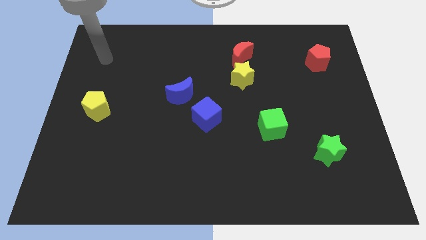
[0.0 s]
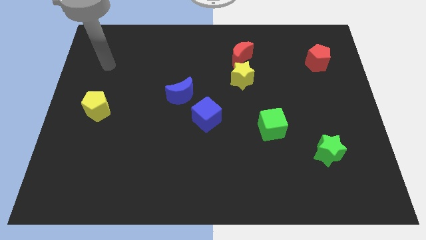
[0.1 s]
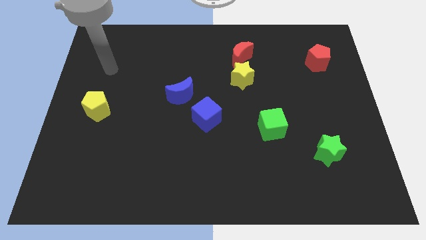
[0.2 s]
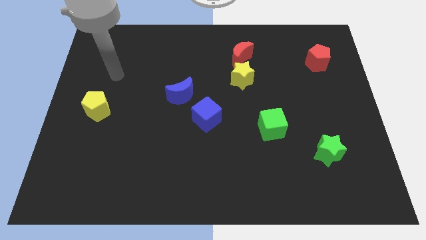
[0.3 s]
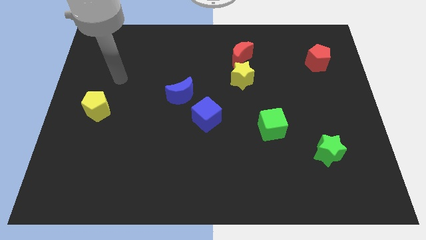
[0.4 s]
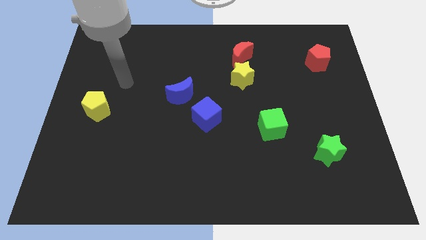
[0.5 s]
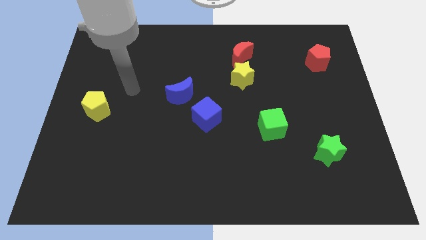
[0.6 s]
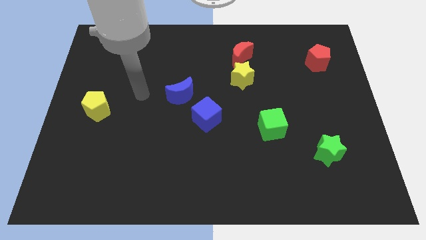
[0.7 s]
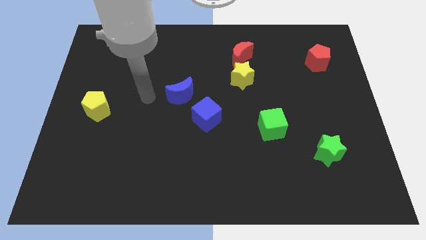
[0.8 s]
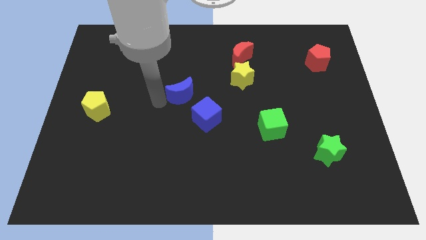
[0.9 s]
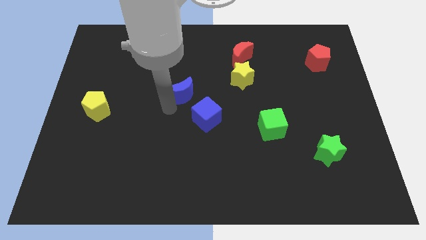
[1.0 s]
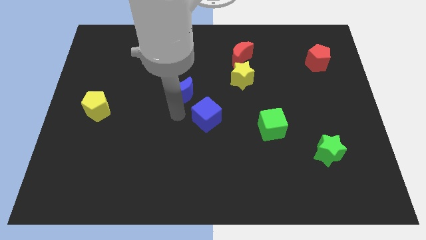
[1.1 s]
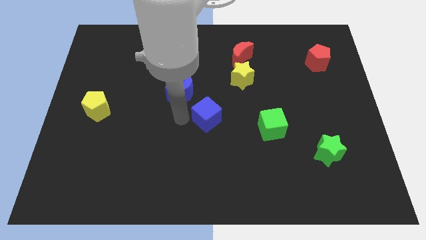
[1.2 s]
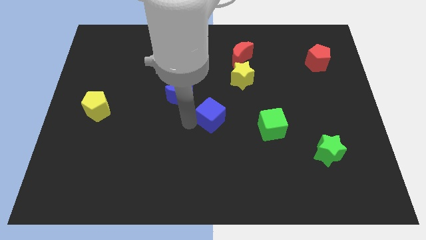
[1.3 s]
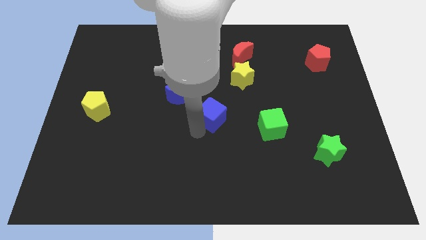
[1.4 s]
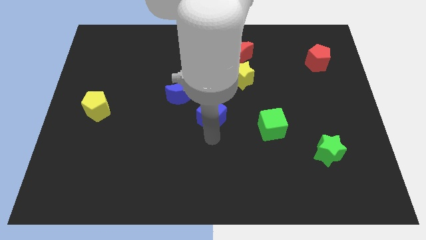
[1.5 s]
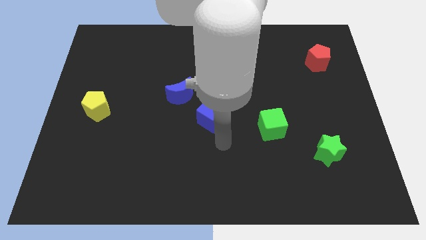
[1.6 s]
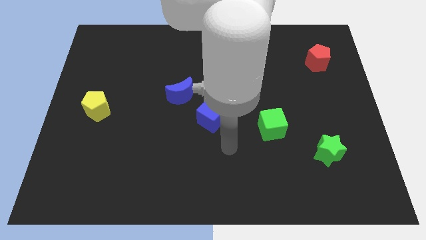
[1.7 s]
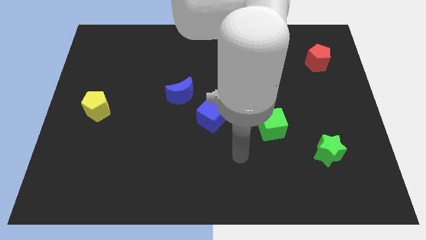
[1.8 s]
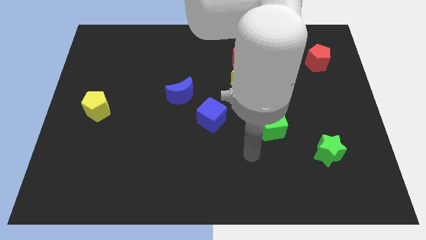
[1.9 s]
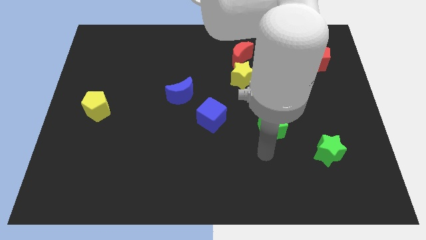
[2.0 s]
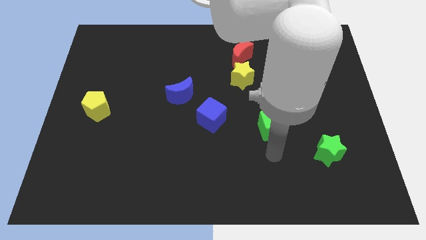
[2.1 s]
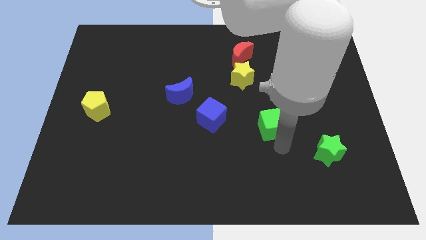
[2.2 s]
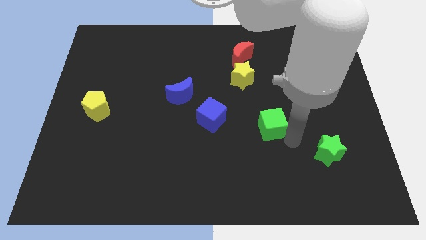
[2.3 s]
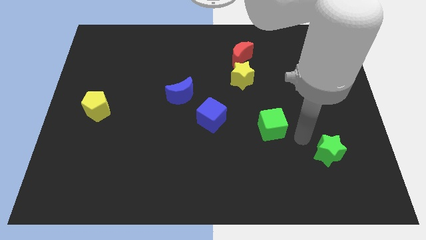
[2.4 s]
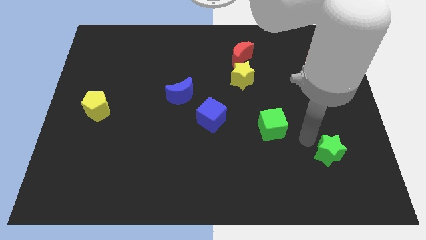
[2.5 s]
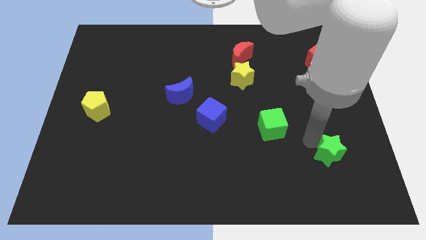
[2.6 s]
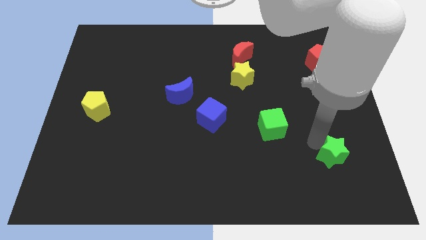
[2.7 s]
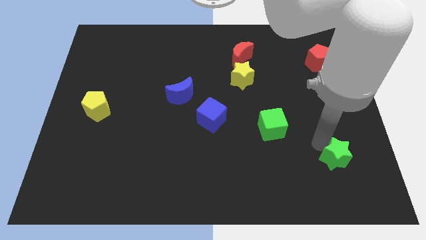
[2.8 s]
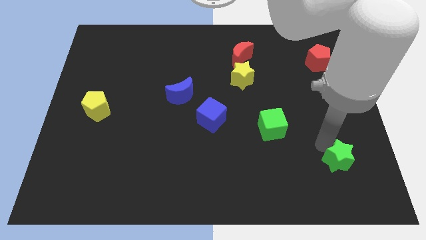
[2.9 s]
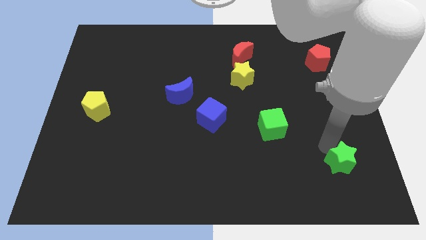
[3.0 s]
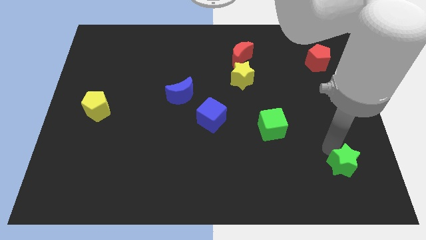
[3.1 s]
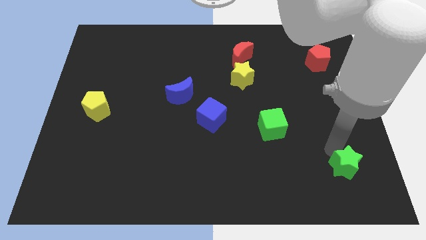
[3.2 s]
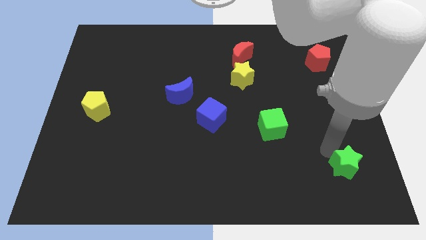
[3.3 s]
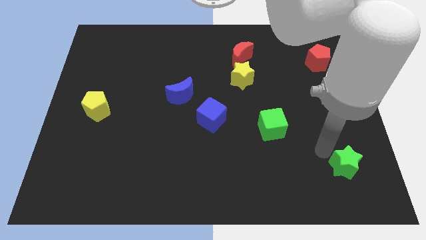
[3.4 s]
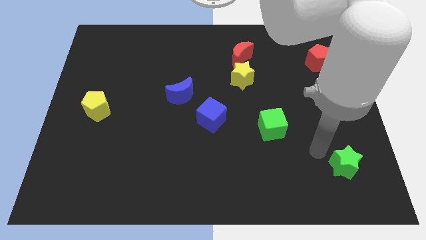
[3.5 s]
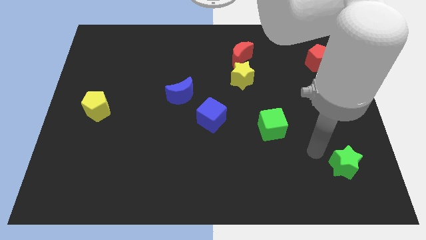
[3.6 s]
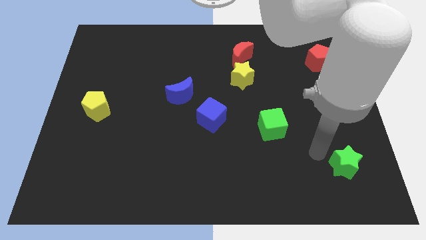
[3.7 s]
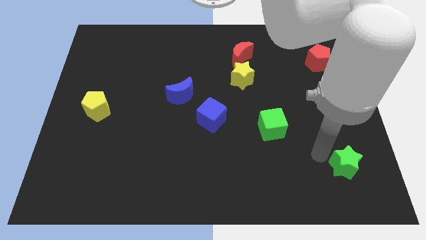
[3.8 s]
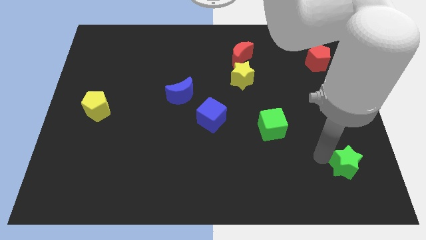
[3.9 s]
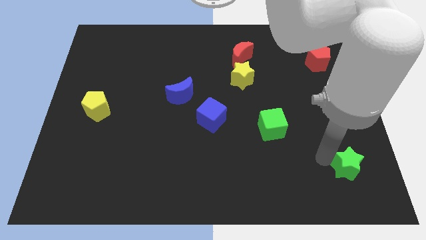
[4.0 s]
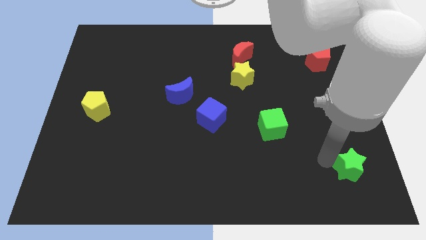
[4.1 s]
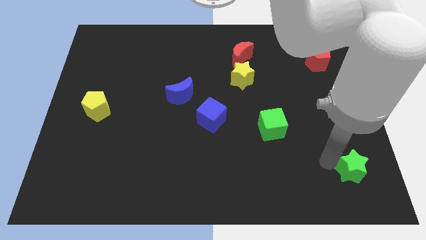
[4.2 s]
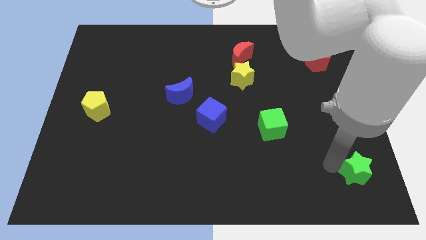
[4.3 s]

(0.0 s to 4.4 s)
move the green star to the bottom right

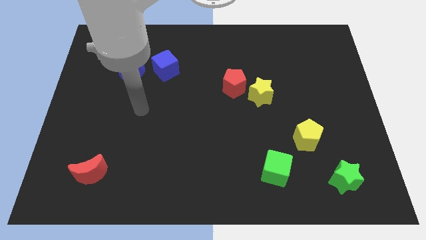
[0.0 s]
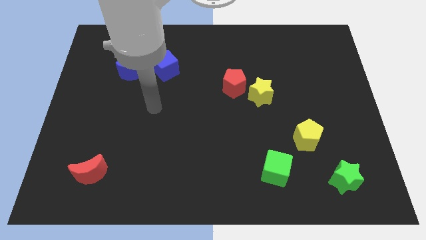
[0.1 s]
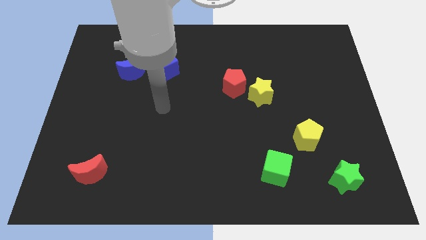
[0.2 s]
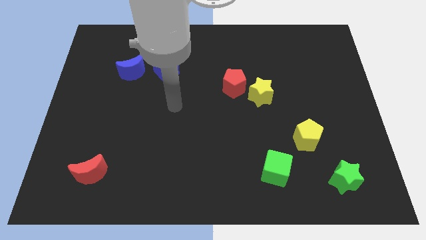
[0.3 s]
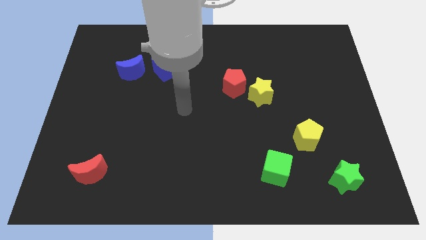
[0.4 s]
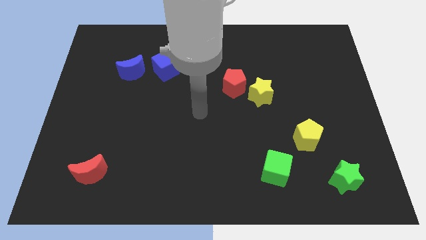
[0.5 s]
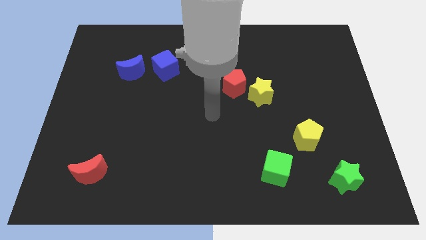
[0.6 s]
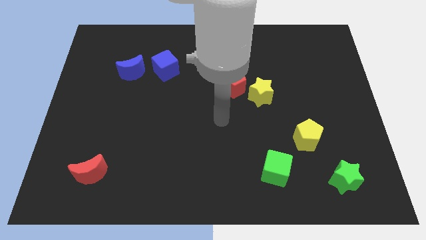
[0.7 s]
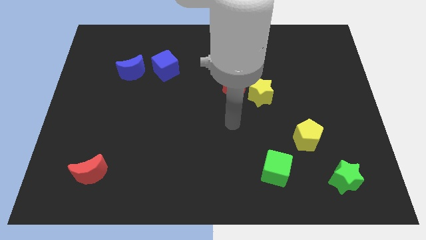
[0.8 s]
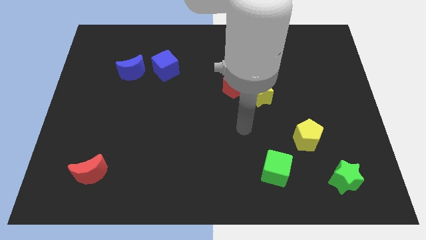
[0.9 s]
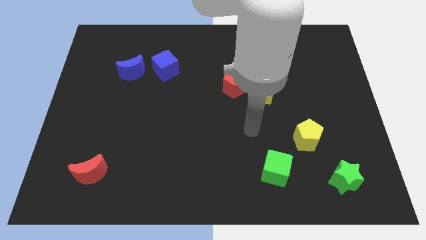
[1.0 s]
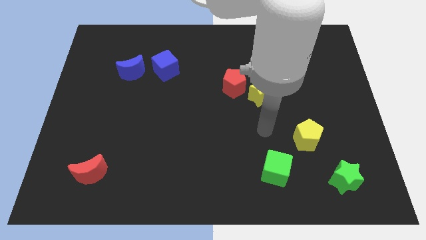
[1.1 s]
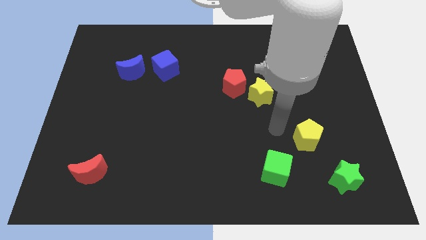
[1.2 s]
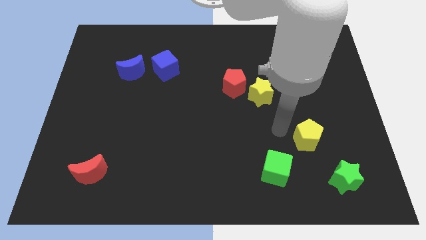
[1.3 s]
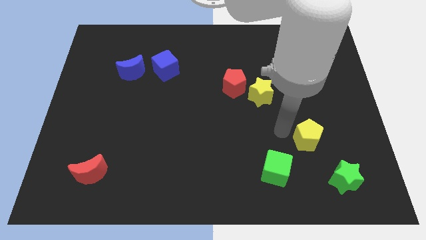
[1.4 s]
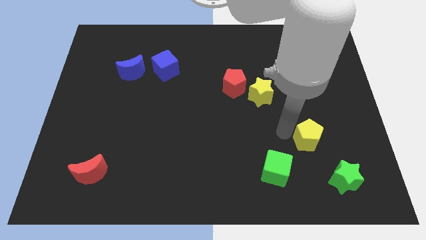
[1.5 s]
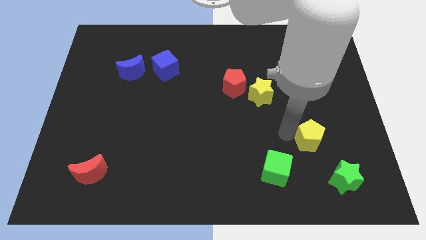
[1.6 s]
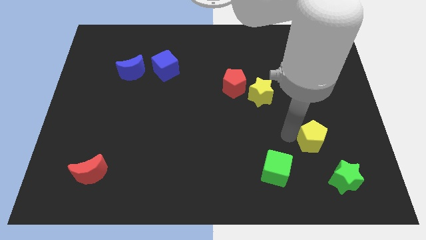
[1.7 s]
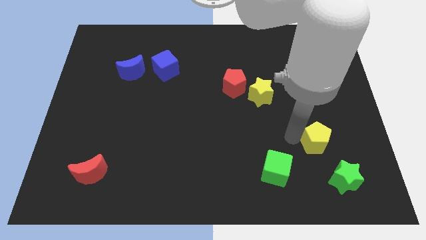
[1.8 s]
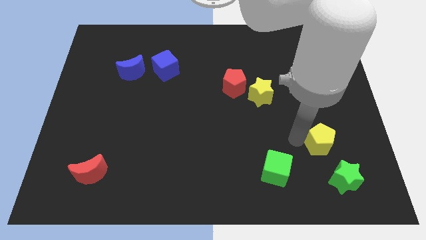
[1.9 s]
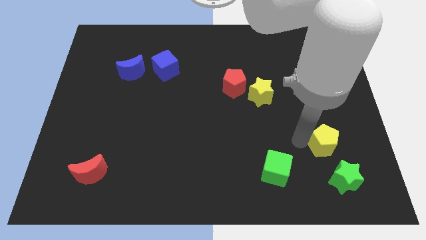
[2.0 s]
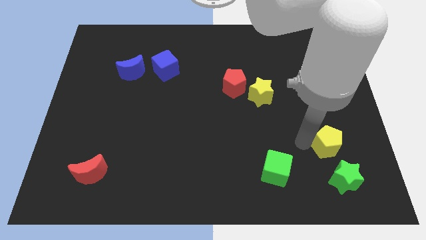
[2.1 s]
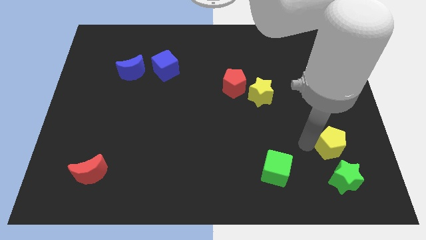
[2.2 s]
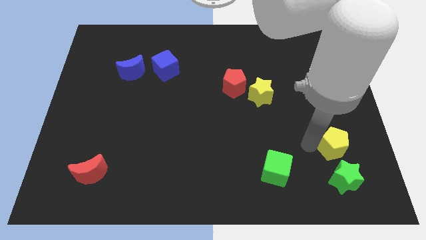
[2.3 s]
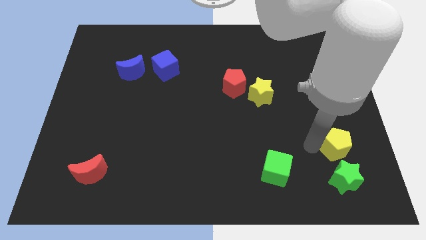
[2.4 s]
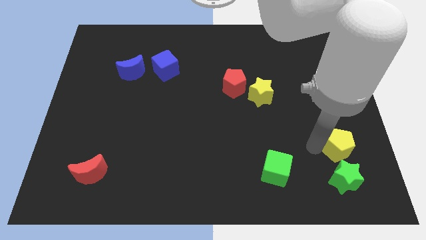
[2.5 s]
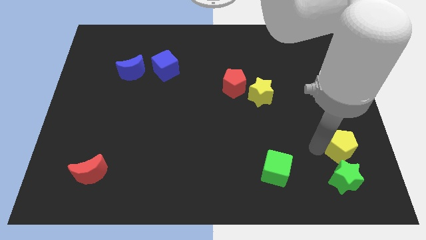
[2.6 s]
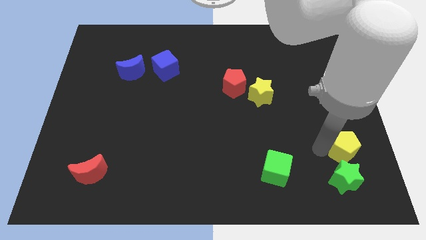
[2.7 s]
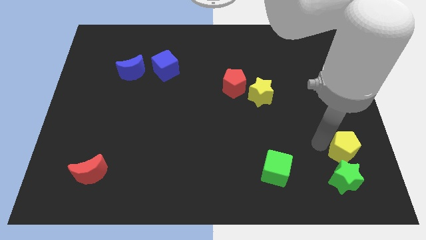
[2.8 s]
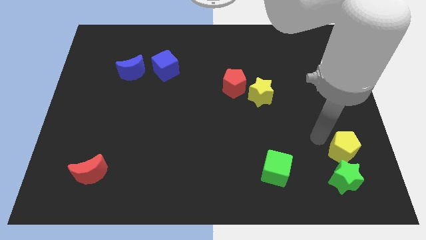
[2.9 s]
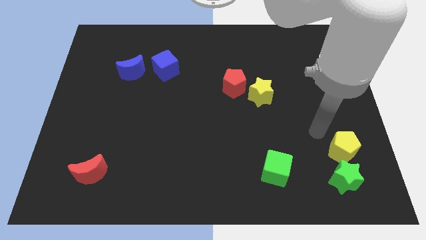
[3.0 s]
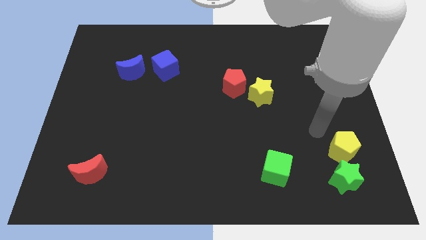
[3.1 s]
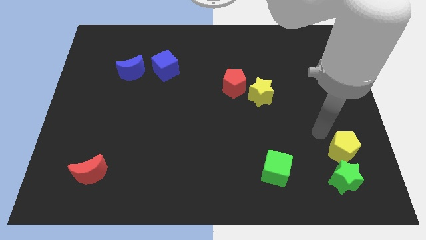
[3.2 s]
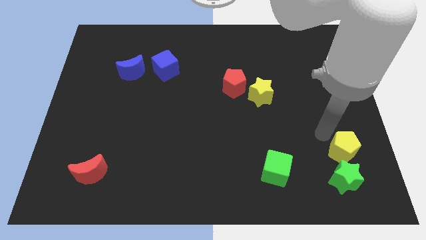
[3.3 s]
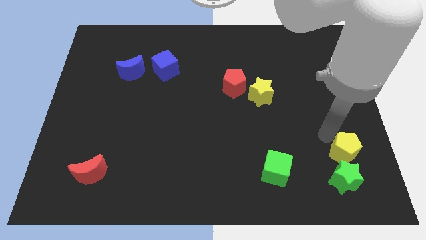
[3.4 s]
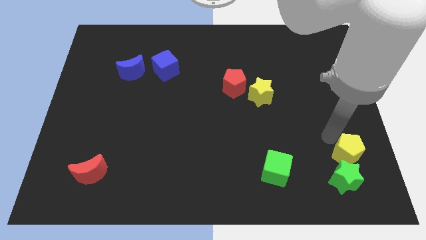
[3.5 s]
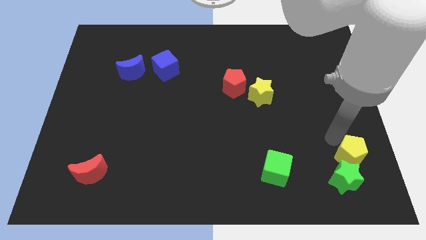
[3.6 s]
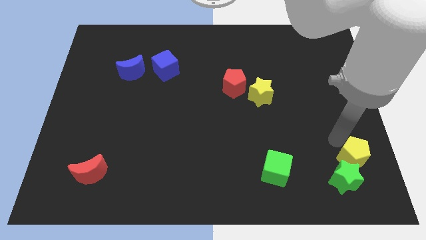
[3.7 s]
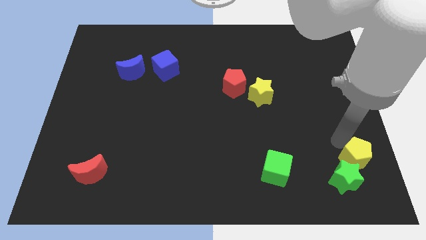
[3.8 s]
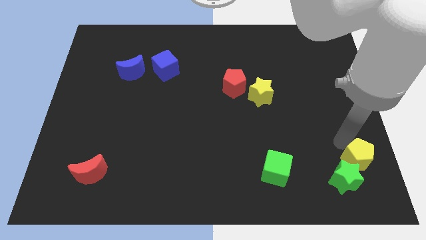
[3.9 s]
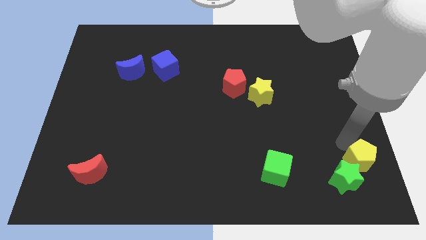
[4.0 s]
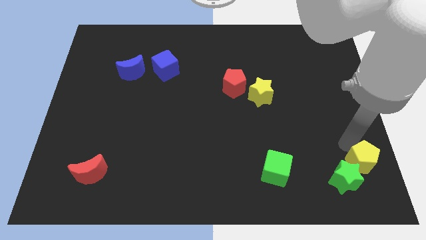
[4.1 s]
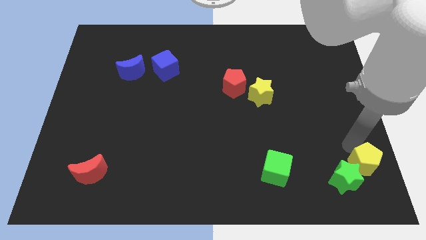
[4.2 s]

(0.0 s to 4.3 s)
move the yellow pentagon to the bottom right corner
